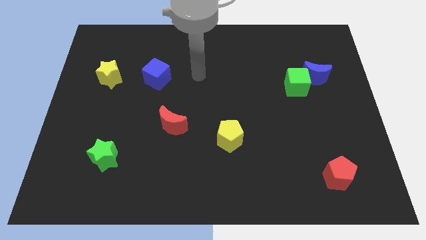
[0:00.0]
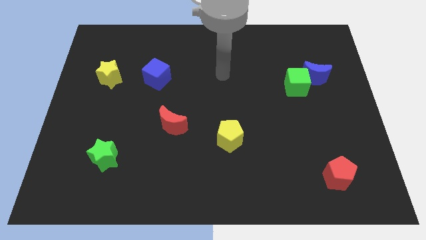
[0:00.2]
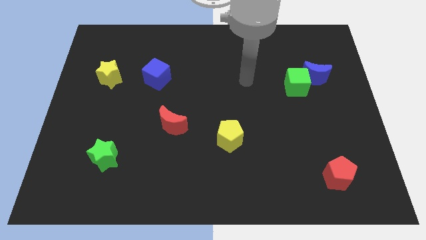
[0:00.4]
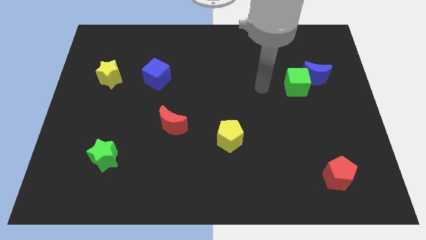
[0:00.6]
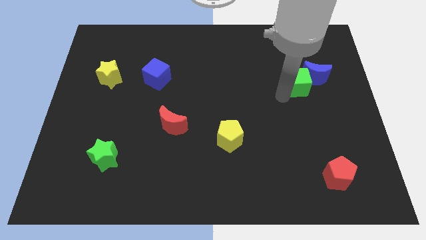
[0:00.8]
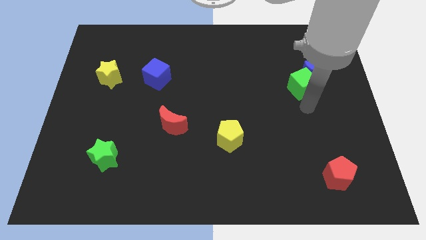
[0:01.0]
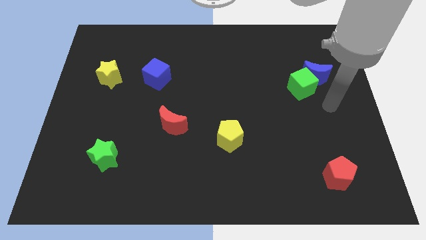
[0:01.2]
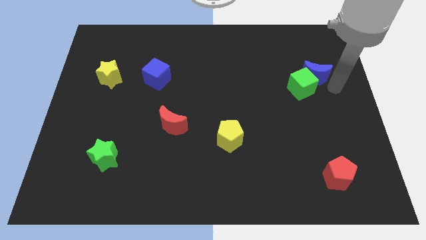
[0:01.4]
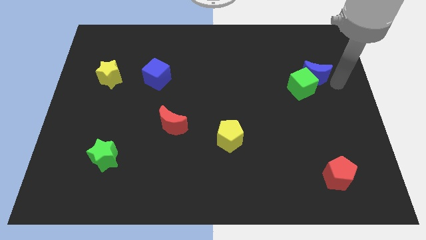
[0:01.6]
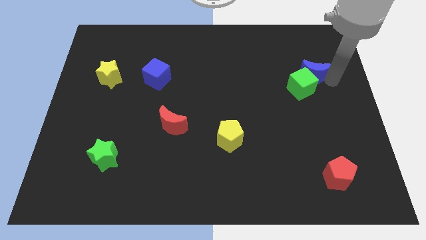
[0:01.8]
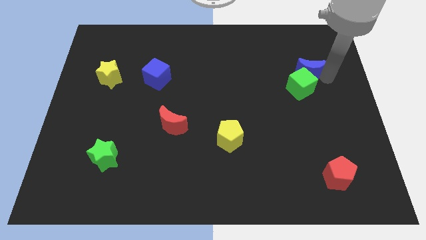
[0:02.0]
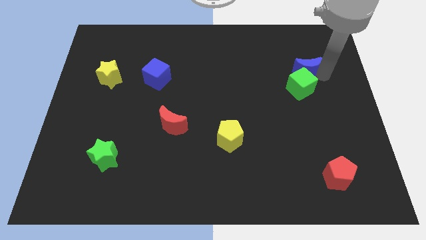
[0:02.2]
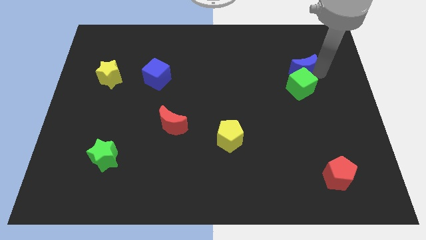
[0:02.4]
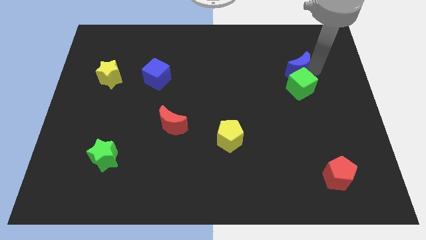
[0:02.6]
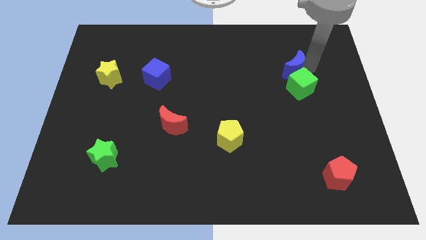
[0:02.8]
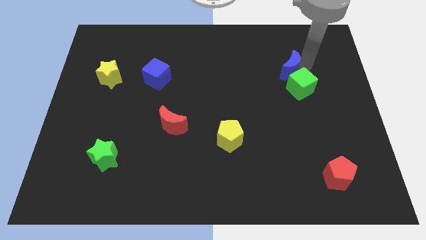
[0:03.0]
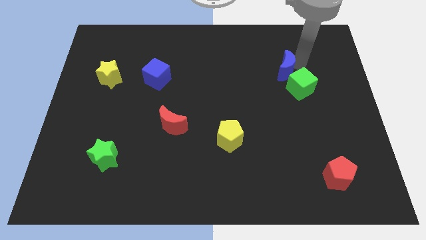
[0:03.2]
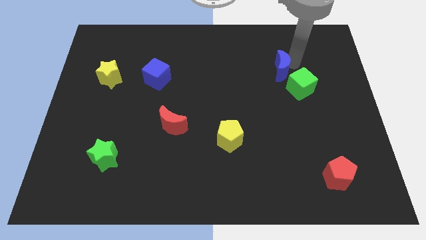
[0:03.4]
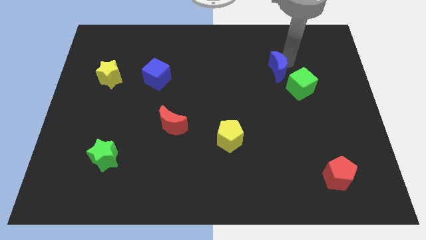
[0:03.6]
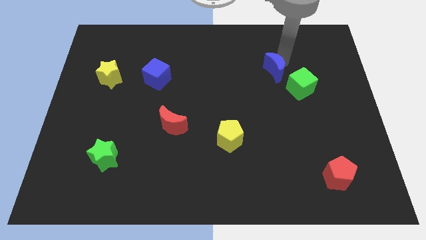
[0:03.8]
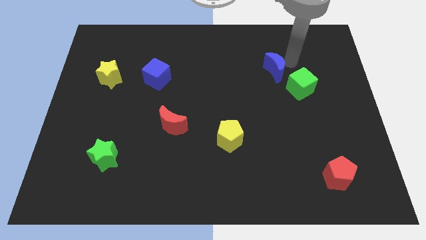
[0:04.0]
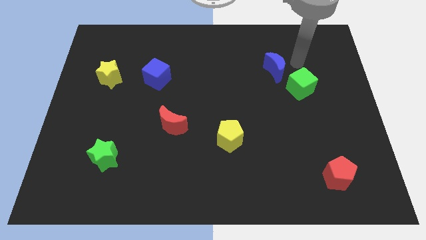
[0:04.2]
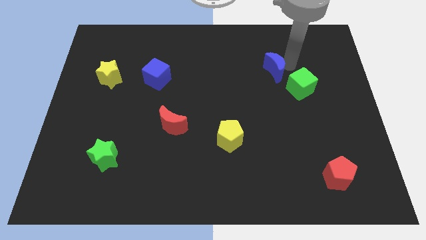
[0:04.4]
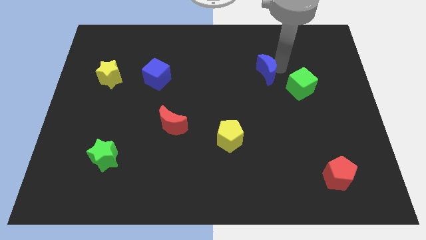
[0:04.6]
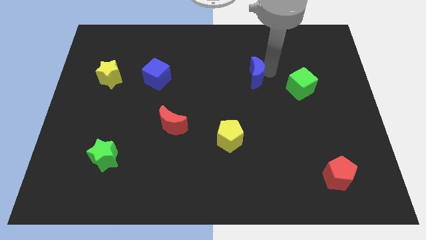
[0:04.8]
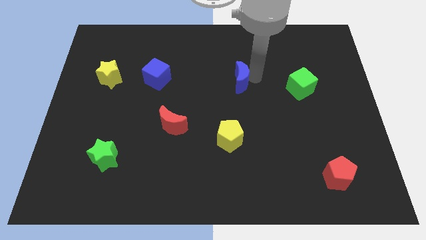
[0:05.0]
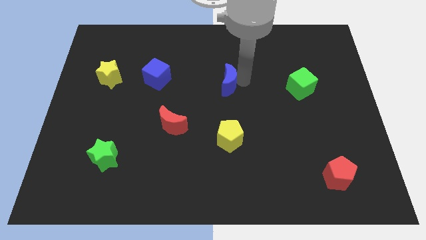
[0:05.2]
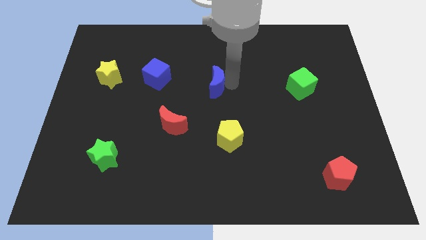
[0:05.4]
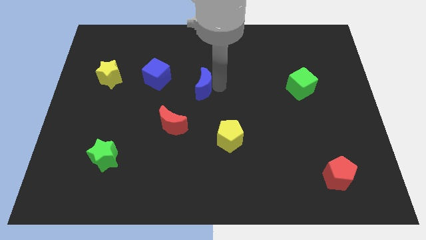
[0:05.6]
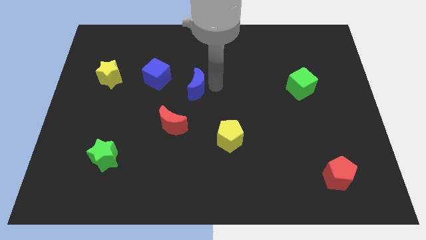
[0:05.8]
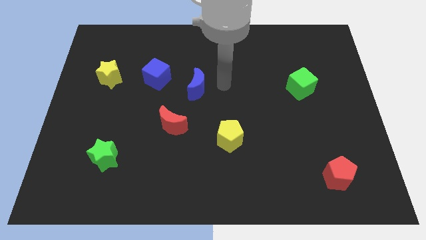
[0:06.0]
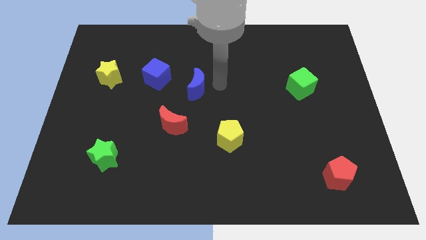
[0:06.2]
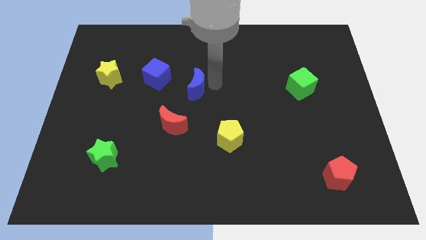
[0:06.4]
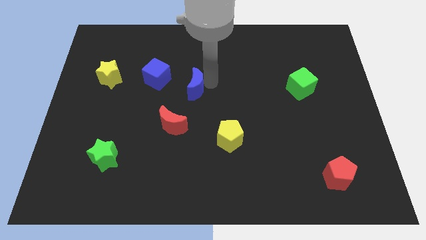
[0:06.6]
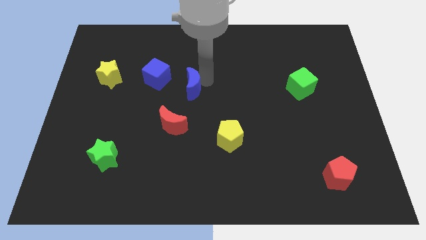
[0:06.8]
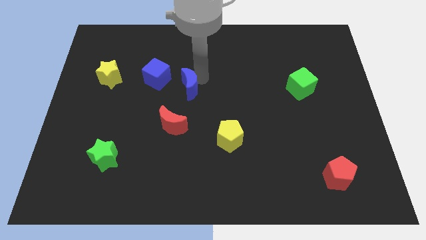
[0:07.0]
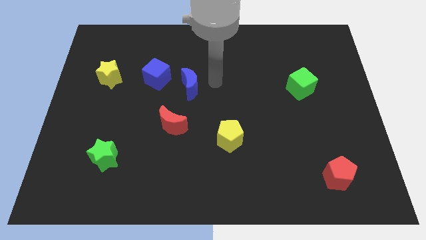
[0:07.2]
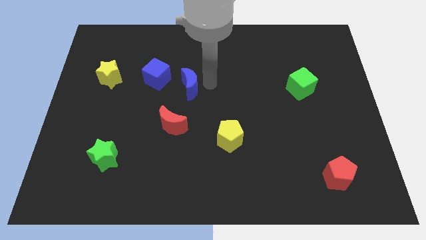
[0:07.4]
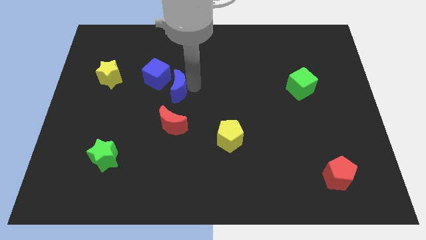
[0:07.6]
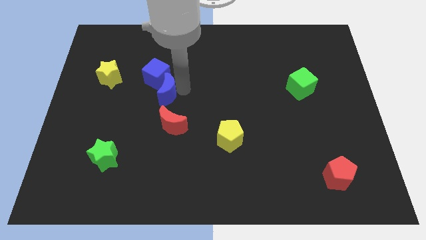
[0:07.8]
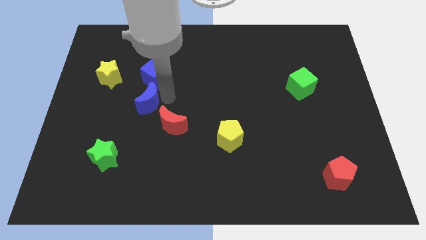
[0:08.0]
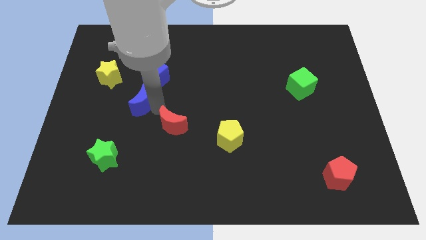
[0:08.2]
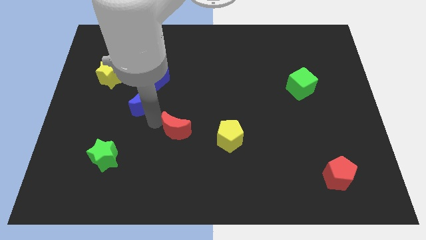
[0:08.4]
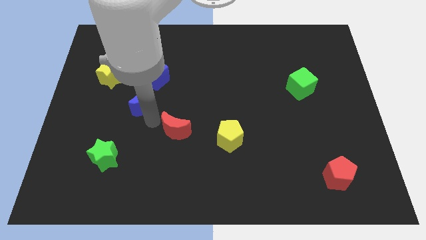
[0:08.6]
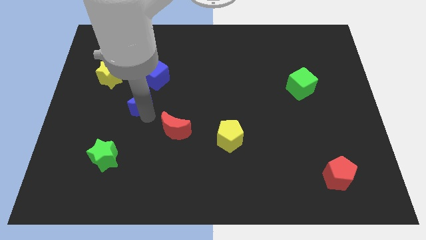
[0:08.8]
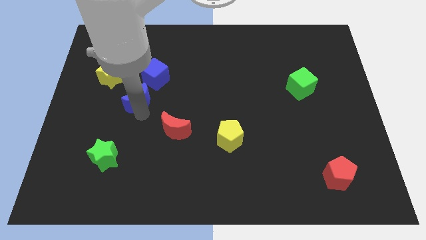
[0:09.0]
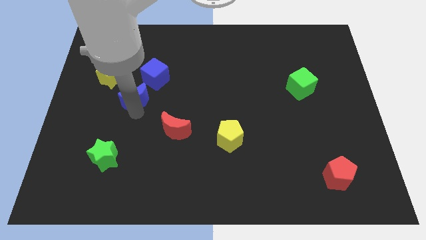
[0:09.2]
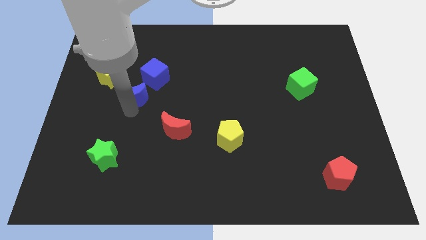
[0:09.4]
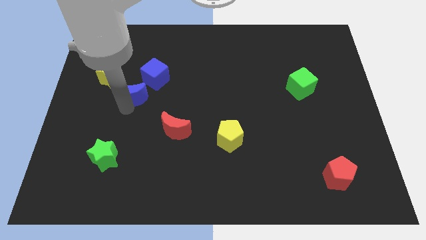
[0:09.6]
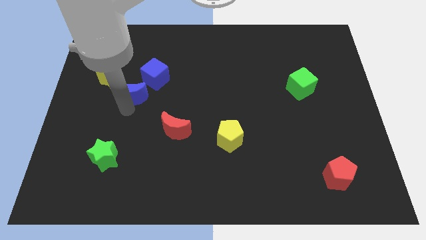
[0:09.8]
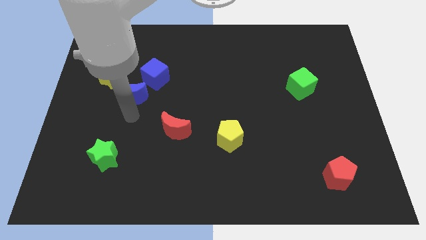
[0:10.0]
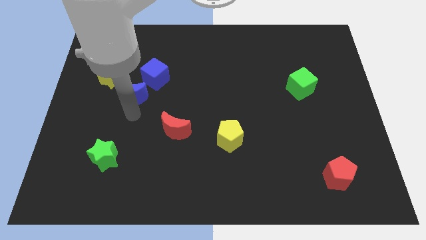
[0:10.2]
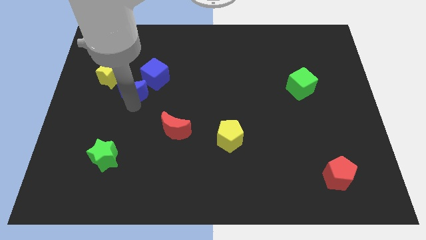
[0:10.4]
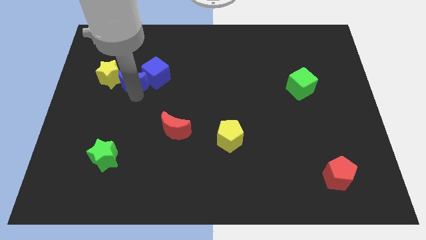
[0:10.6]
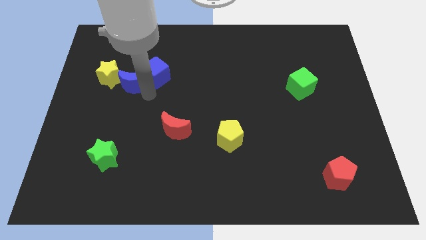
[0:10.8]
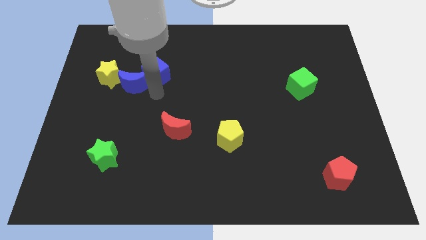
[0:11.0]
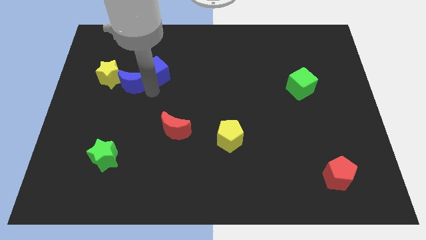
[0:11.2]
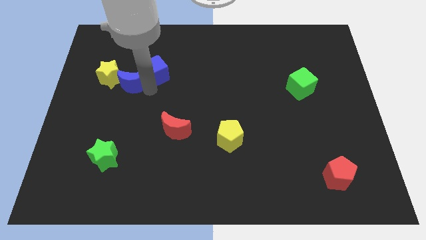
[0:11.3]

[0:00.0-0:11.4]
put the blue moon towards the yellow star
